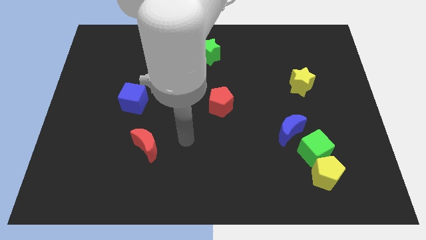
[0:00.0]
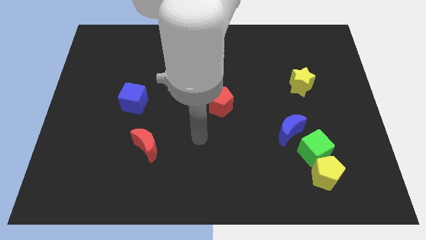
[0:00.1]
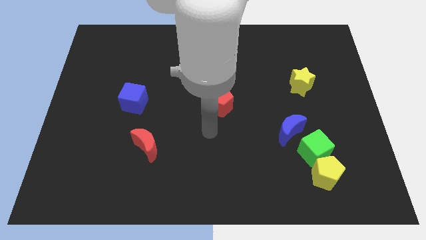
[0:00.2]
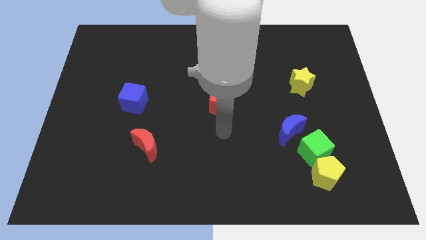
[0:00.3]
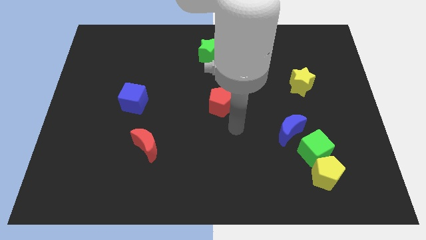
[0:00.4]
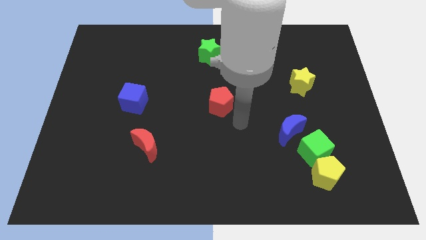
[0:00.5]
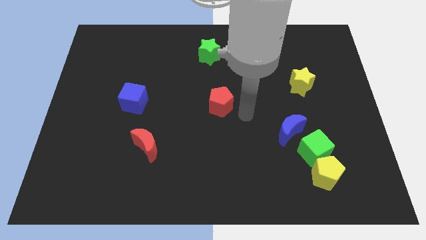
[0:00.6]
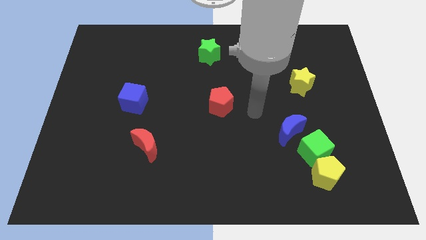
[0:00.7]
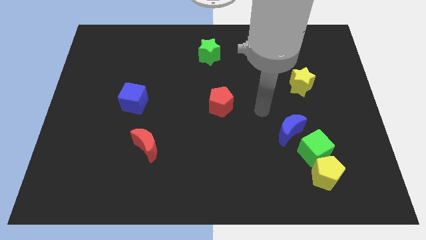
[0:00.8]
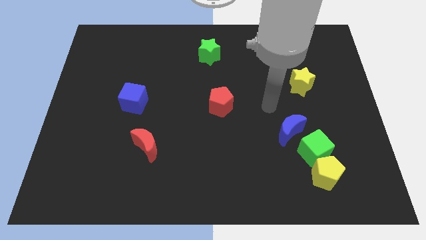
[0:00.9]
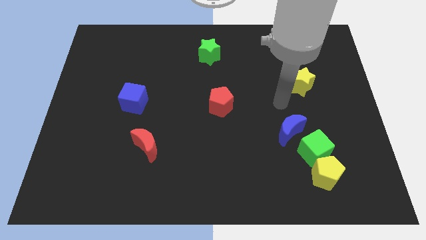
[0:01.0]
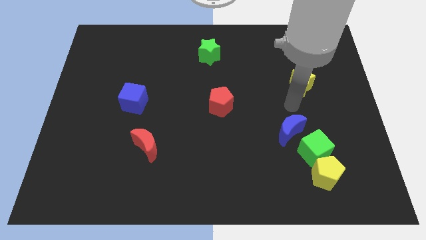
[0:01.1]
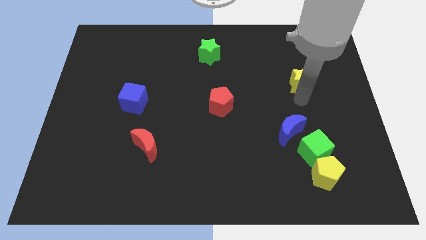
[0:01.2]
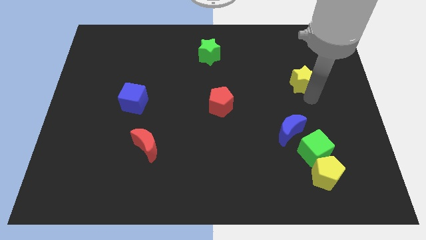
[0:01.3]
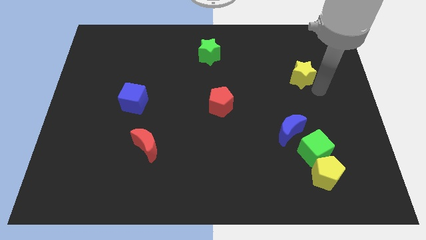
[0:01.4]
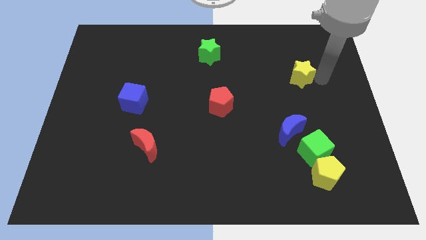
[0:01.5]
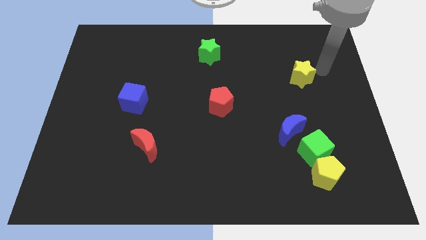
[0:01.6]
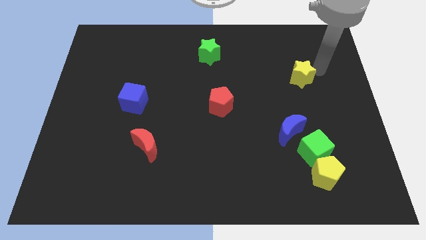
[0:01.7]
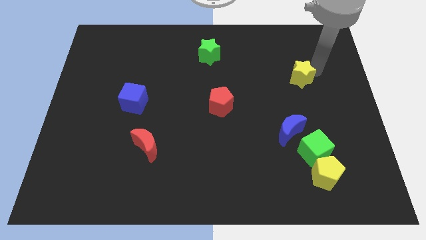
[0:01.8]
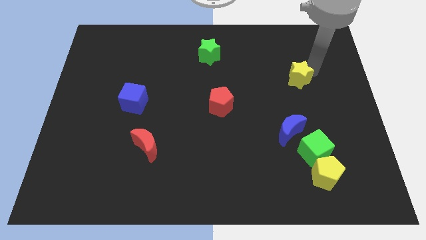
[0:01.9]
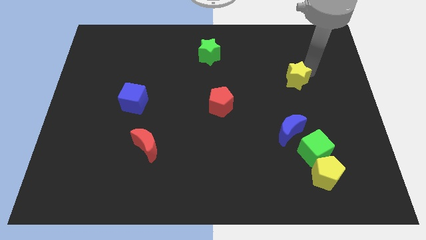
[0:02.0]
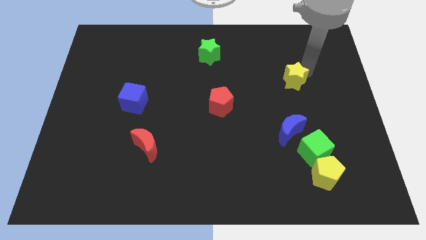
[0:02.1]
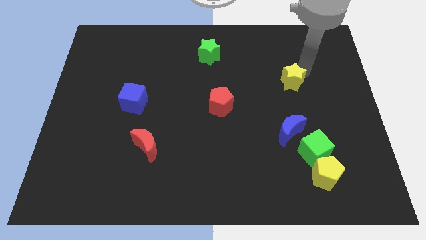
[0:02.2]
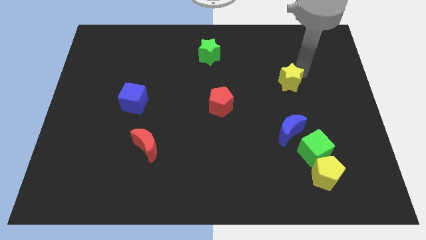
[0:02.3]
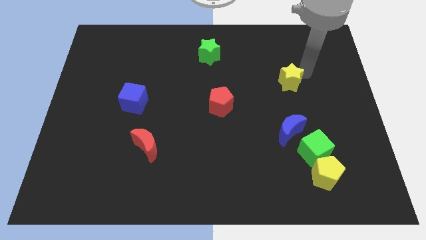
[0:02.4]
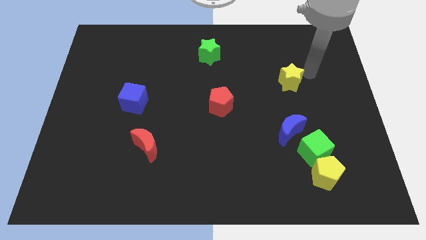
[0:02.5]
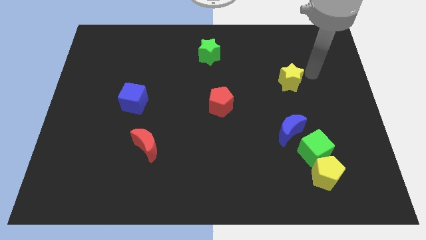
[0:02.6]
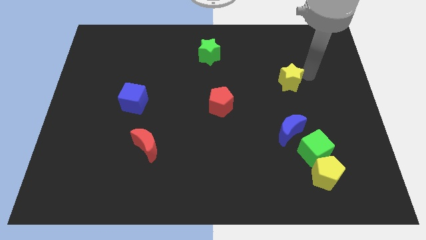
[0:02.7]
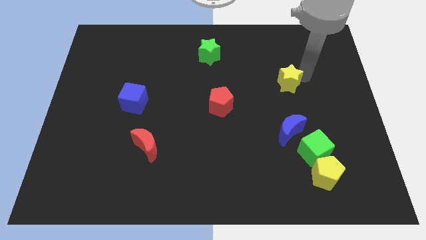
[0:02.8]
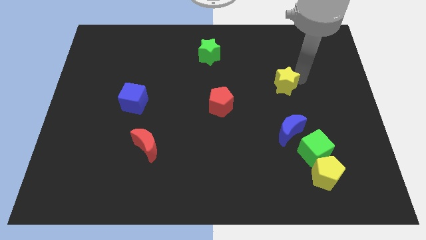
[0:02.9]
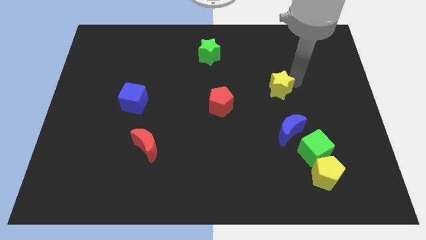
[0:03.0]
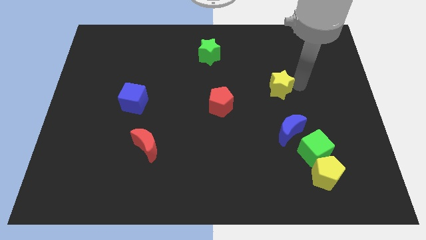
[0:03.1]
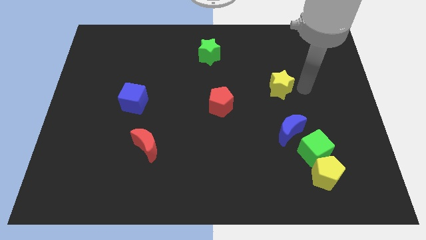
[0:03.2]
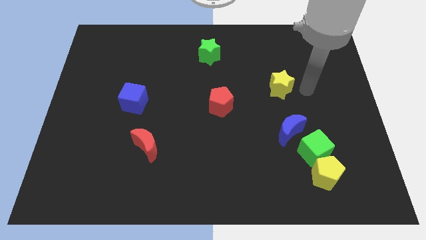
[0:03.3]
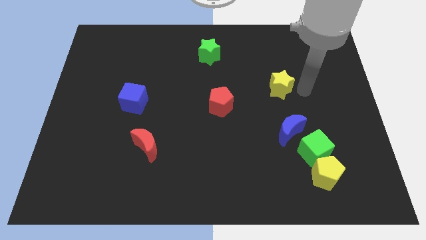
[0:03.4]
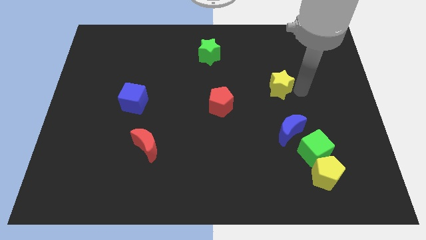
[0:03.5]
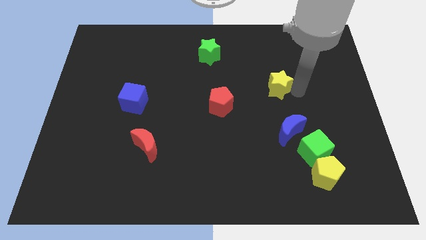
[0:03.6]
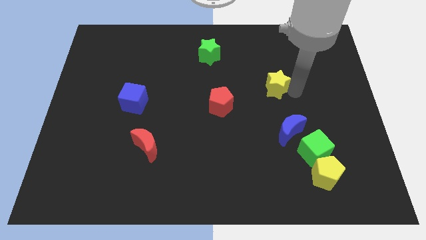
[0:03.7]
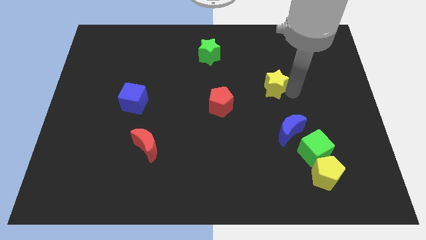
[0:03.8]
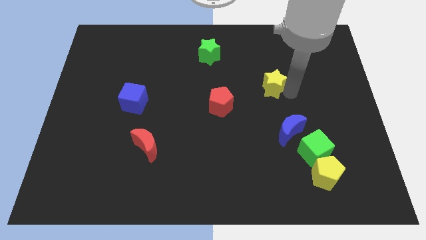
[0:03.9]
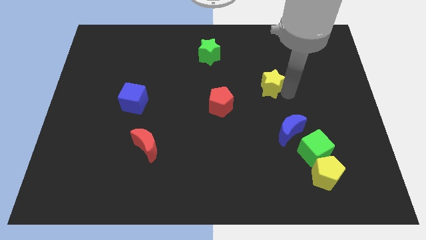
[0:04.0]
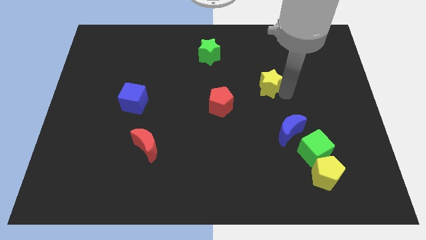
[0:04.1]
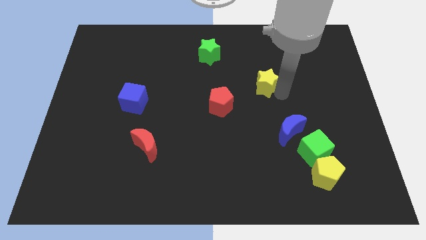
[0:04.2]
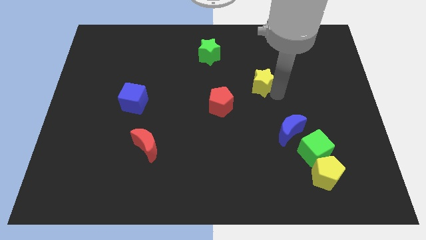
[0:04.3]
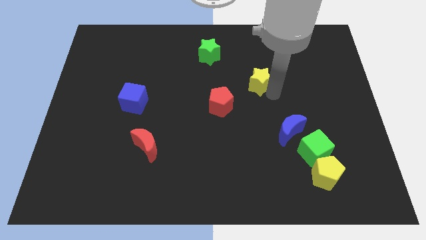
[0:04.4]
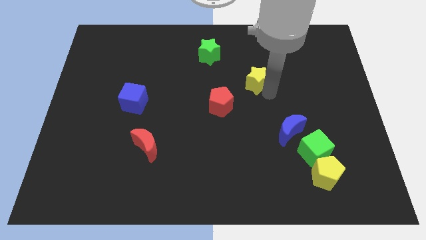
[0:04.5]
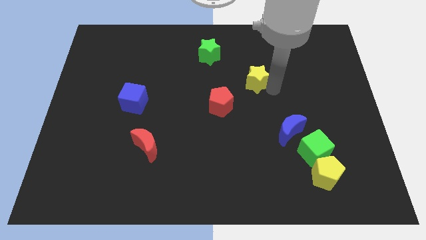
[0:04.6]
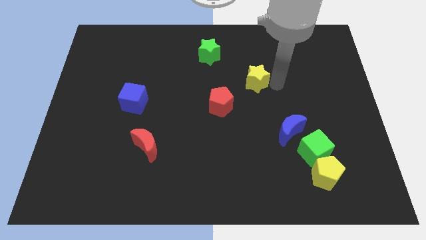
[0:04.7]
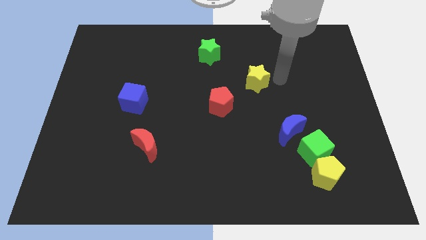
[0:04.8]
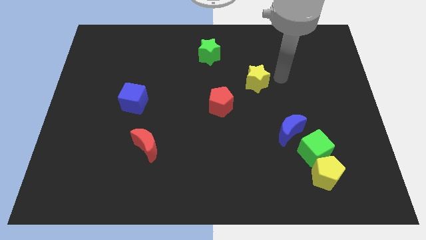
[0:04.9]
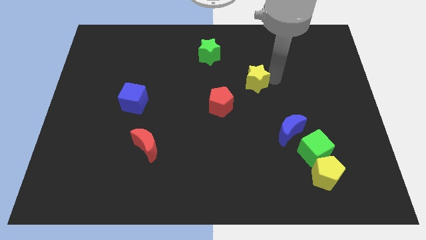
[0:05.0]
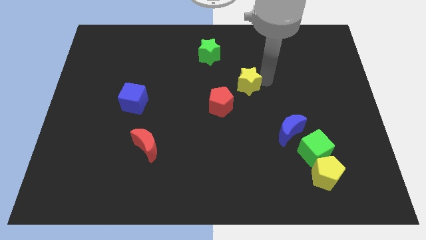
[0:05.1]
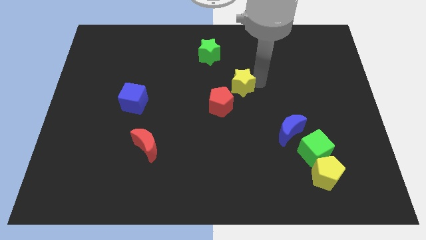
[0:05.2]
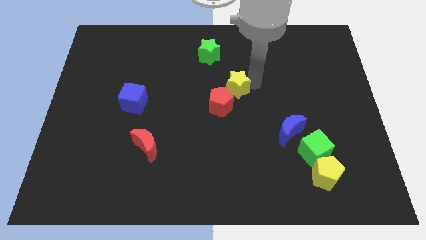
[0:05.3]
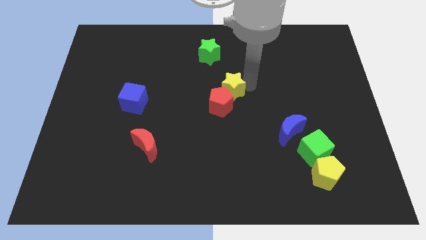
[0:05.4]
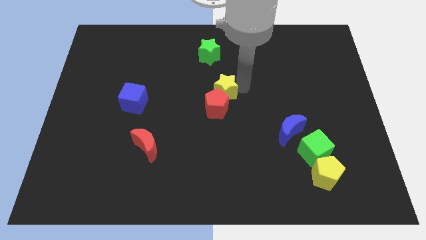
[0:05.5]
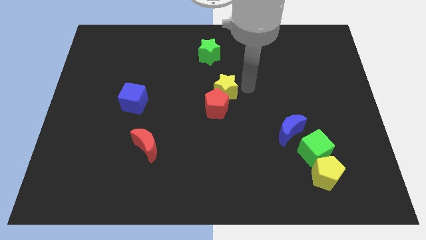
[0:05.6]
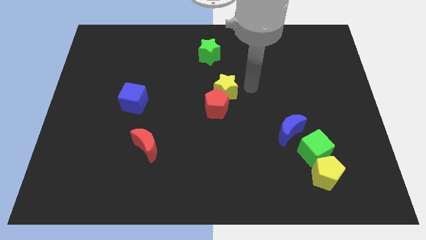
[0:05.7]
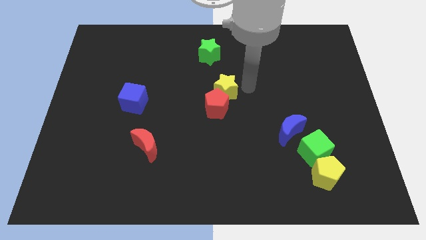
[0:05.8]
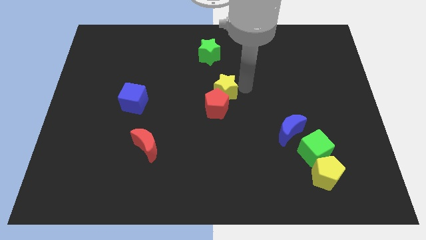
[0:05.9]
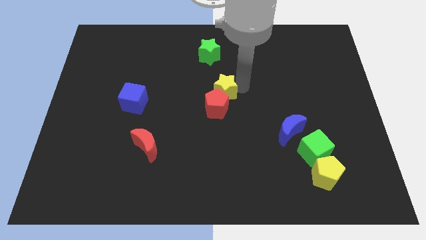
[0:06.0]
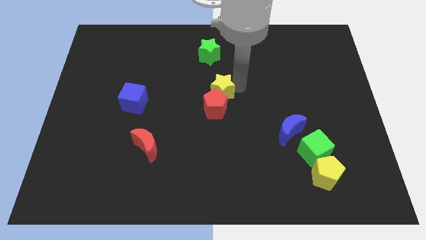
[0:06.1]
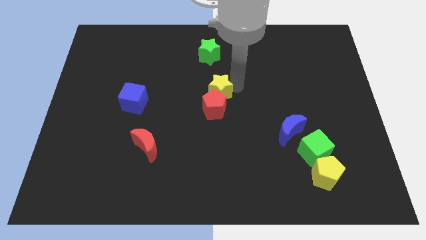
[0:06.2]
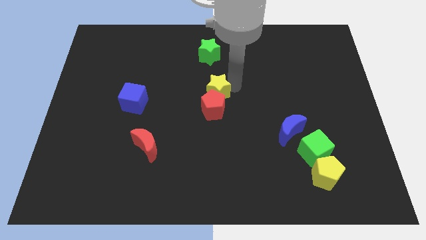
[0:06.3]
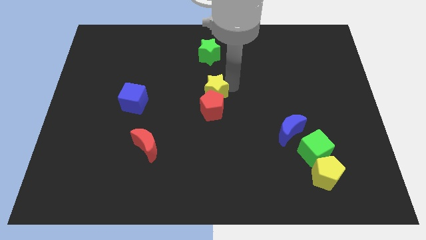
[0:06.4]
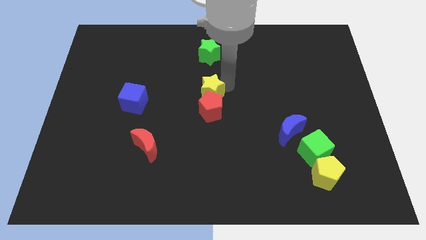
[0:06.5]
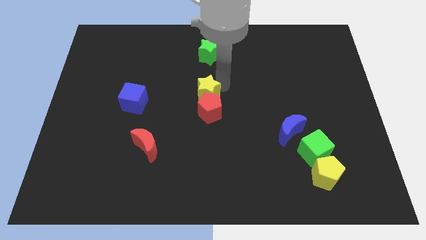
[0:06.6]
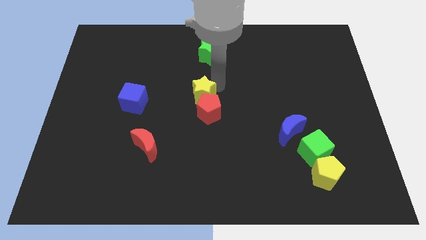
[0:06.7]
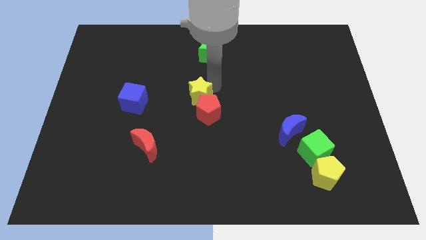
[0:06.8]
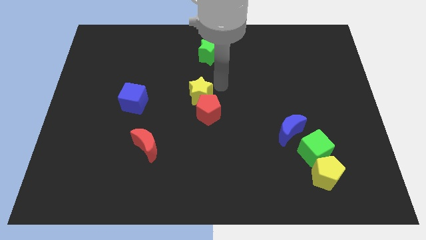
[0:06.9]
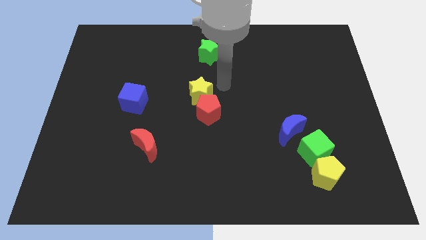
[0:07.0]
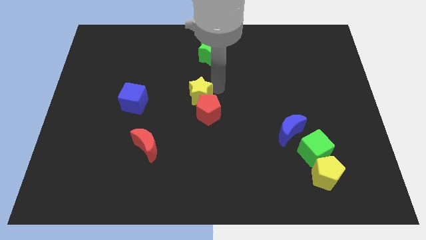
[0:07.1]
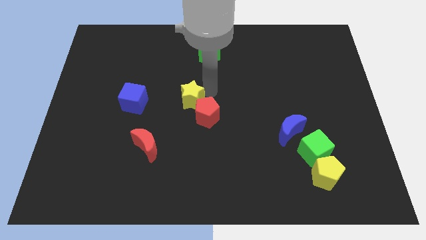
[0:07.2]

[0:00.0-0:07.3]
slide the yellow star just left of the red pentagon
